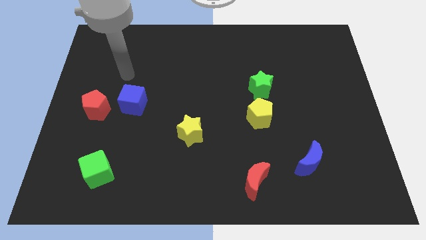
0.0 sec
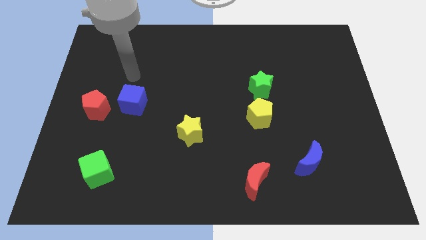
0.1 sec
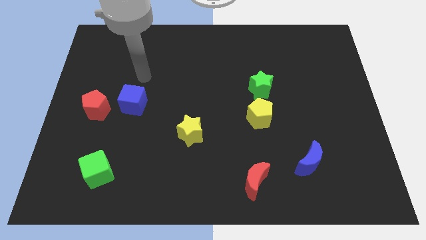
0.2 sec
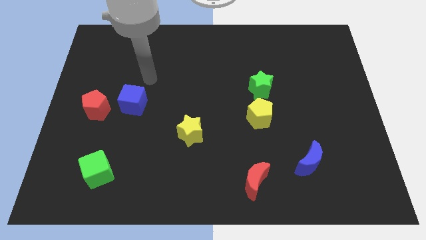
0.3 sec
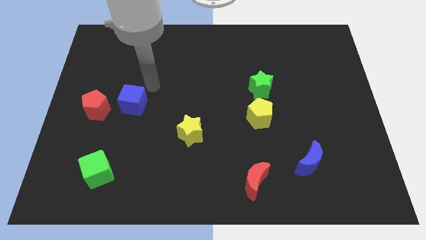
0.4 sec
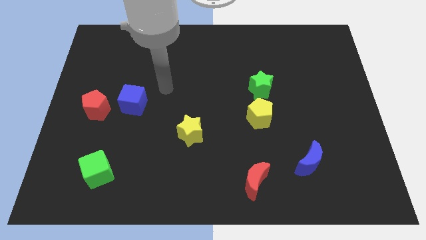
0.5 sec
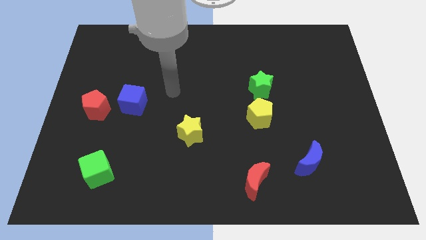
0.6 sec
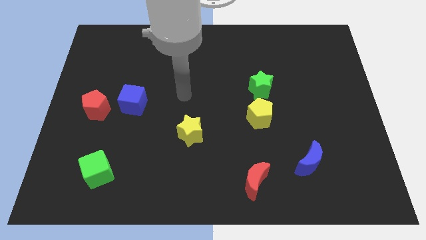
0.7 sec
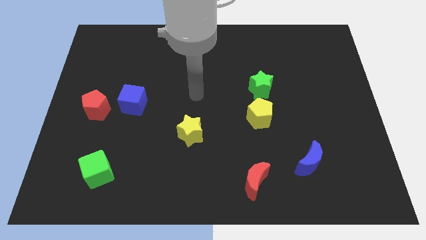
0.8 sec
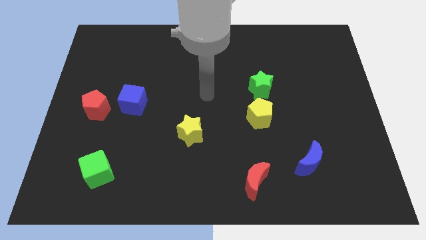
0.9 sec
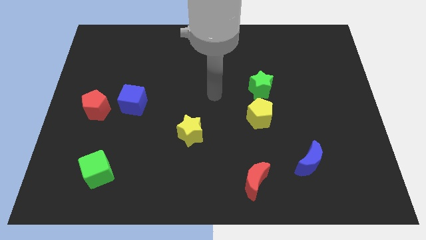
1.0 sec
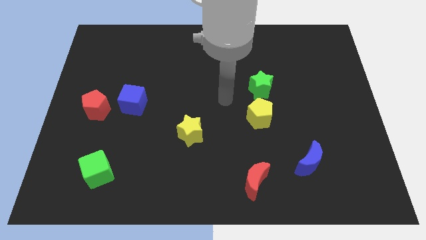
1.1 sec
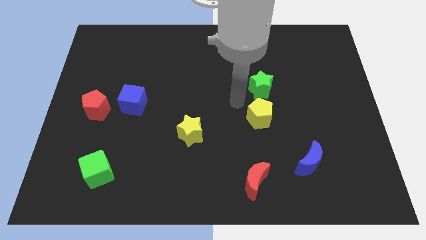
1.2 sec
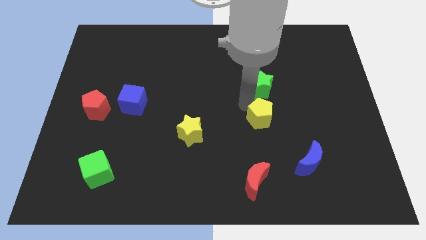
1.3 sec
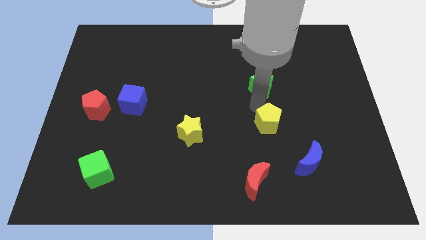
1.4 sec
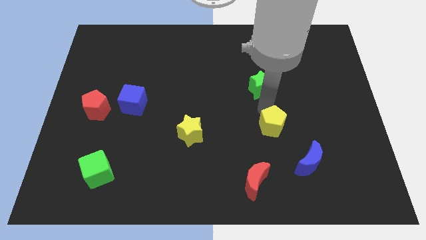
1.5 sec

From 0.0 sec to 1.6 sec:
separate the green star from the yellow pentagon

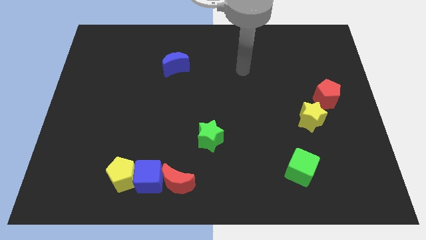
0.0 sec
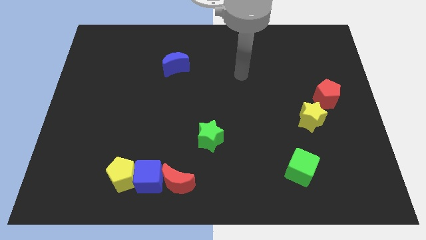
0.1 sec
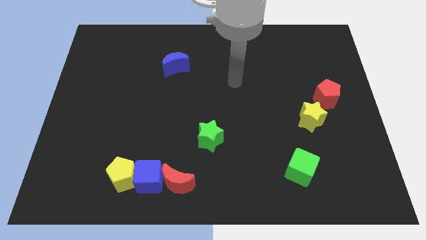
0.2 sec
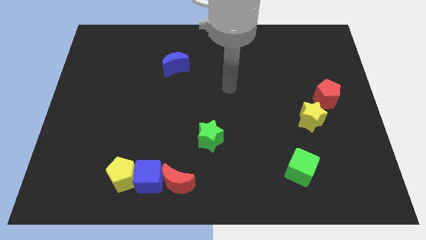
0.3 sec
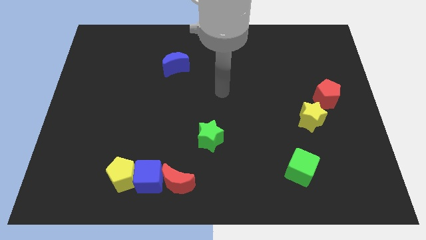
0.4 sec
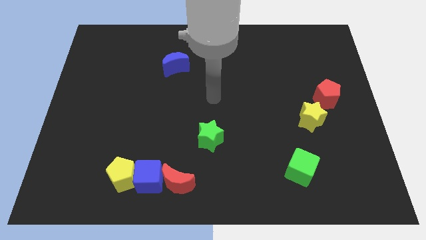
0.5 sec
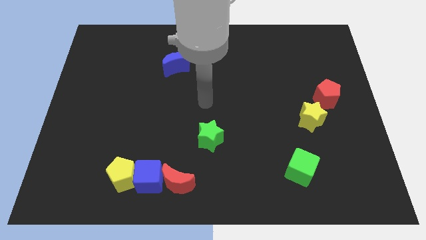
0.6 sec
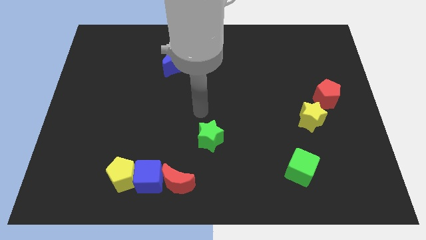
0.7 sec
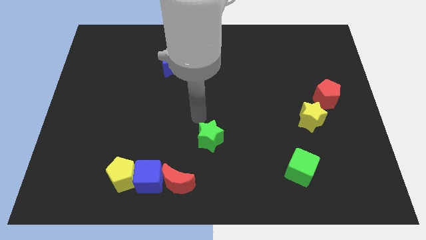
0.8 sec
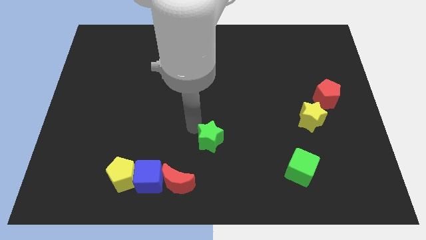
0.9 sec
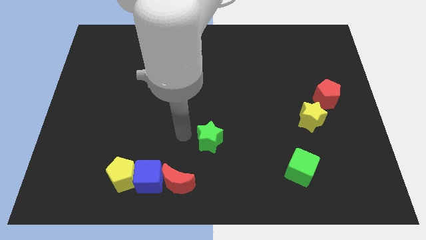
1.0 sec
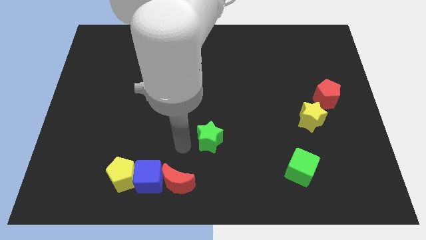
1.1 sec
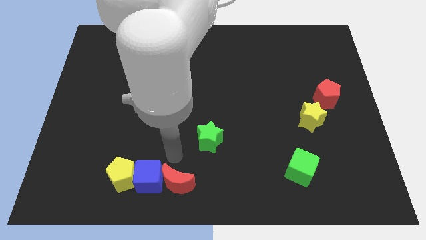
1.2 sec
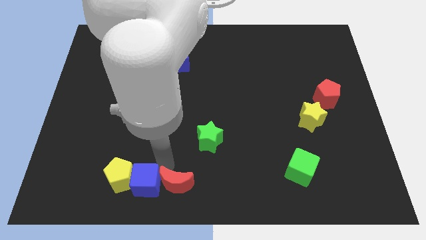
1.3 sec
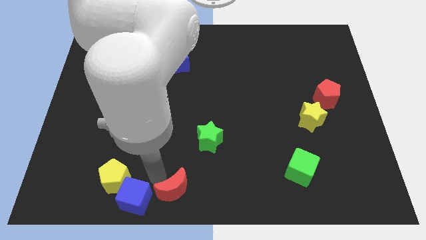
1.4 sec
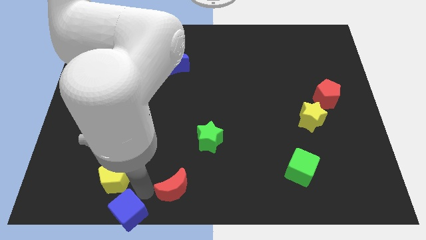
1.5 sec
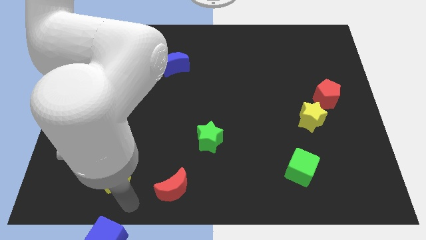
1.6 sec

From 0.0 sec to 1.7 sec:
move the yellow pentagon away from the blue cube

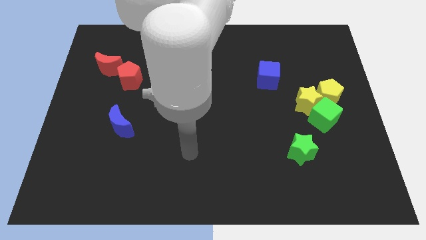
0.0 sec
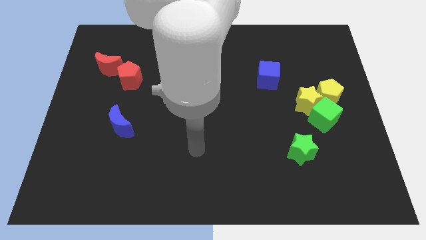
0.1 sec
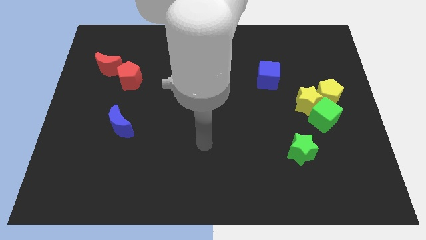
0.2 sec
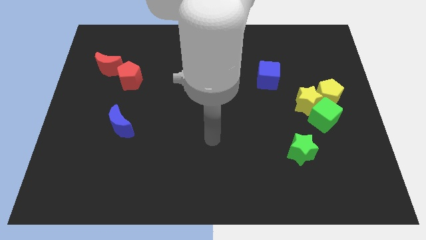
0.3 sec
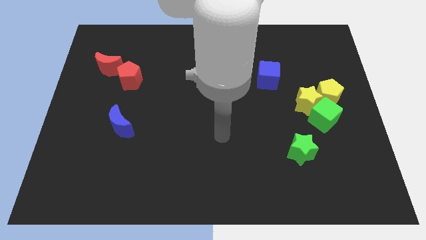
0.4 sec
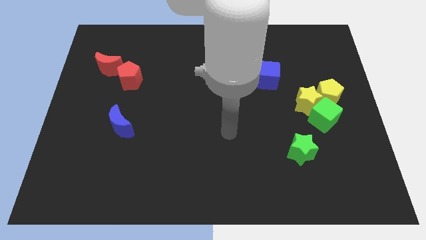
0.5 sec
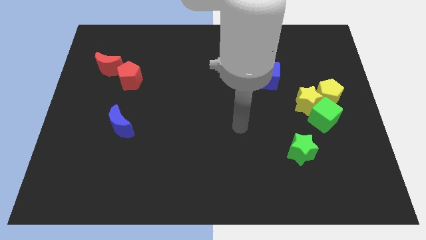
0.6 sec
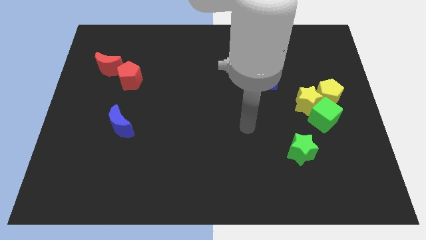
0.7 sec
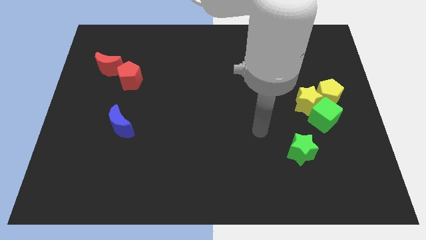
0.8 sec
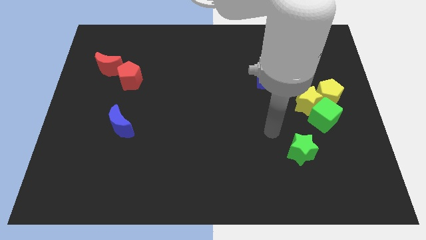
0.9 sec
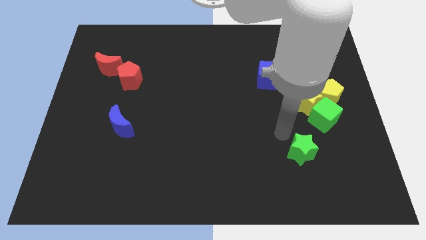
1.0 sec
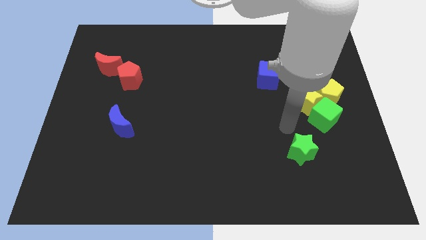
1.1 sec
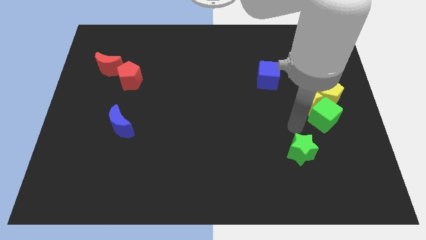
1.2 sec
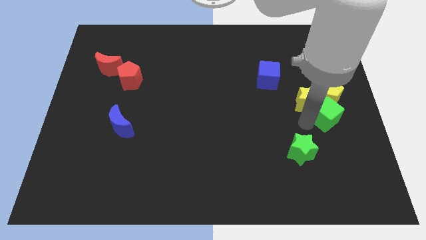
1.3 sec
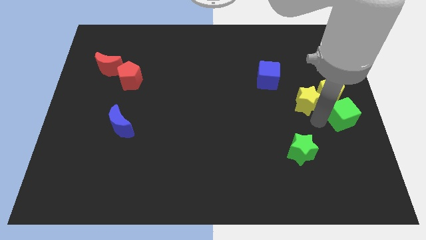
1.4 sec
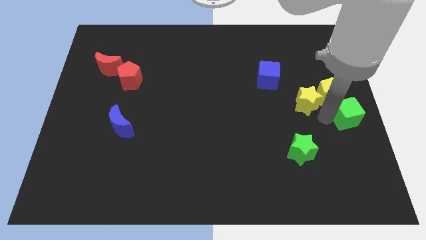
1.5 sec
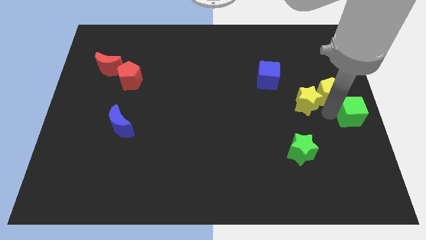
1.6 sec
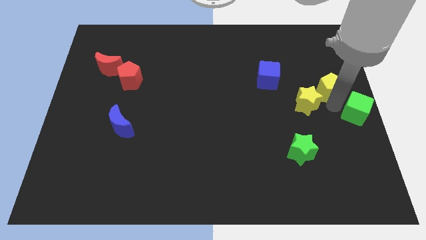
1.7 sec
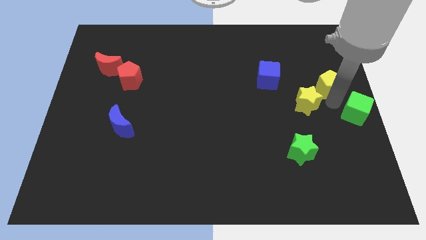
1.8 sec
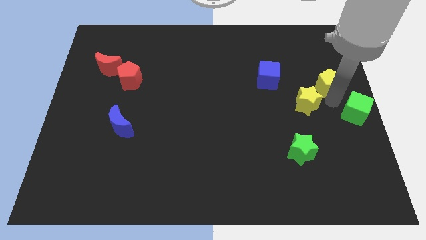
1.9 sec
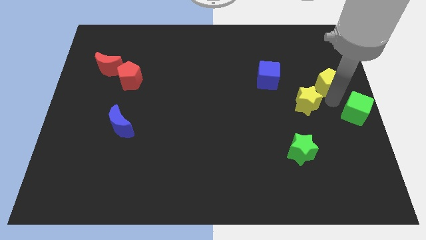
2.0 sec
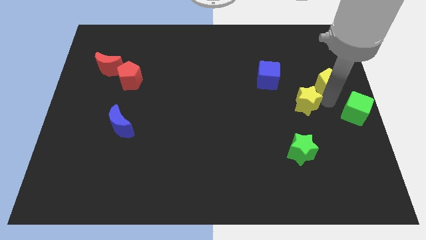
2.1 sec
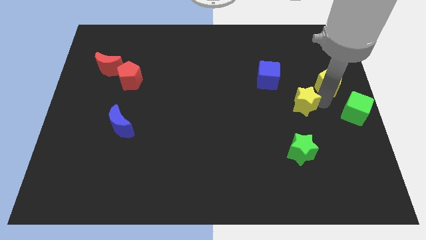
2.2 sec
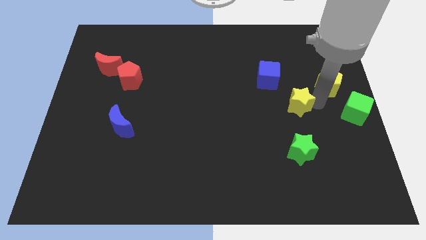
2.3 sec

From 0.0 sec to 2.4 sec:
move the yellow star away from the green cube and yellow pentagon

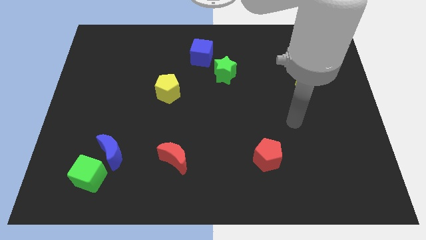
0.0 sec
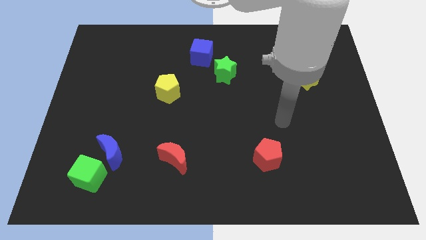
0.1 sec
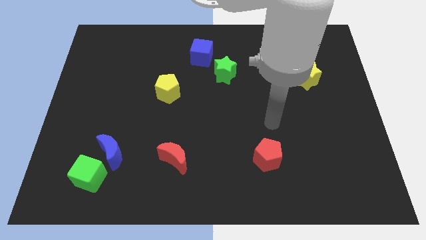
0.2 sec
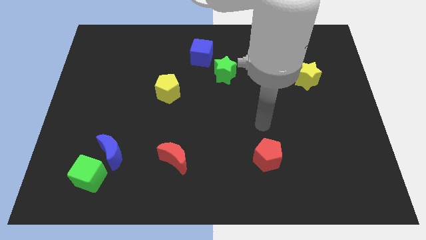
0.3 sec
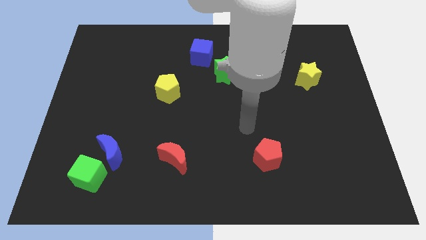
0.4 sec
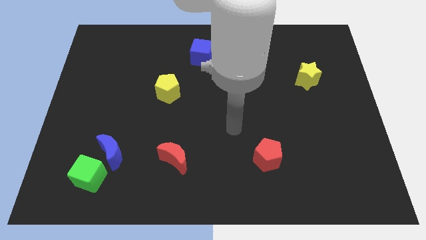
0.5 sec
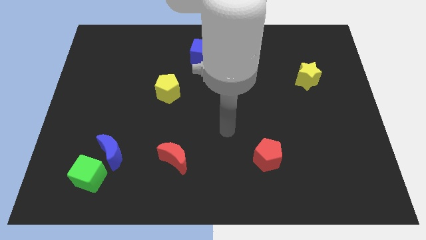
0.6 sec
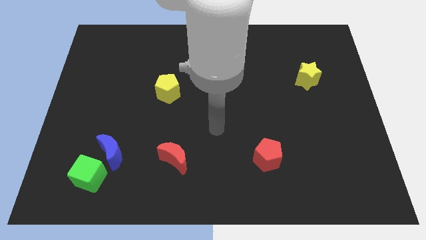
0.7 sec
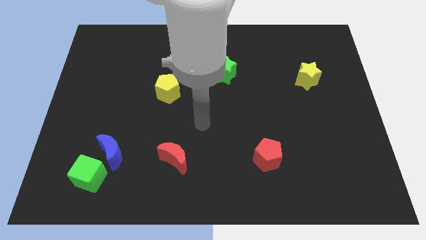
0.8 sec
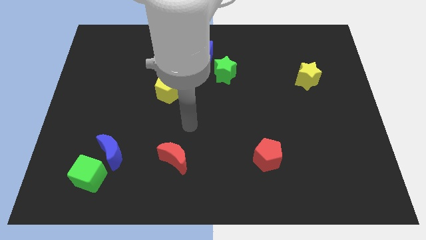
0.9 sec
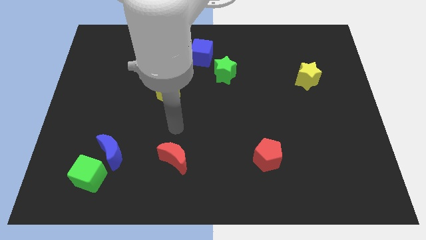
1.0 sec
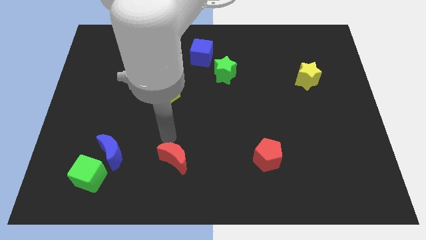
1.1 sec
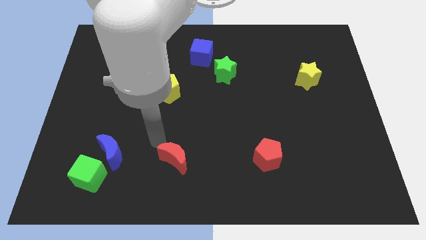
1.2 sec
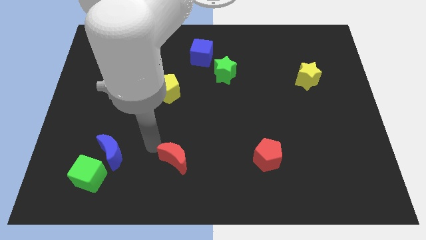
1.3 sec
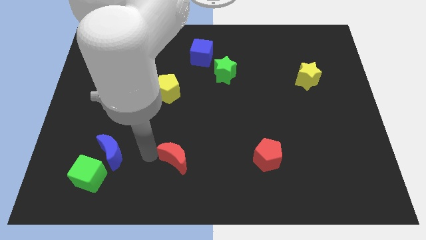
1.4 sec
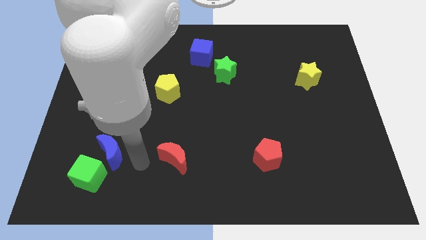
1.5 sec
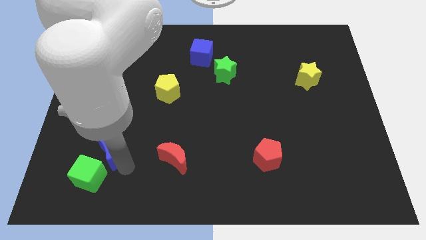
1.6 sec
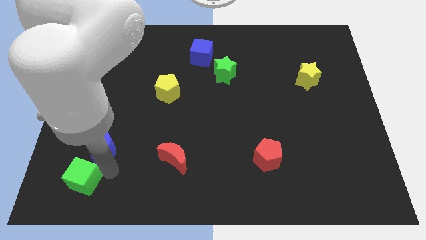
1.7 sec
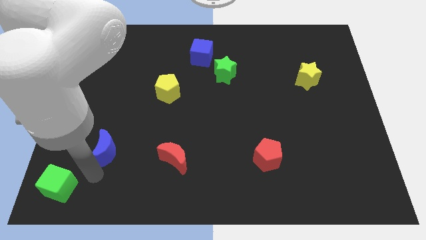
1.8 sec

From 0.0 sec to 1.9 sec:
pull the blue moon apart from the green cube

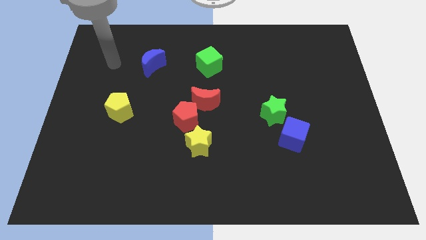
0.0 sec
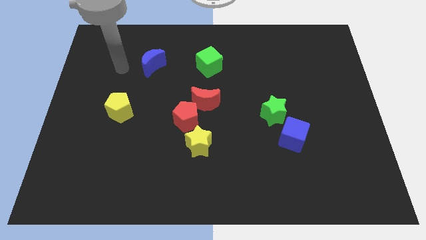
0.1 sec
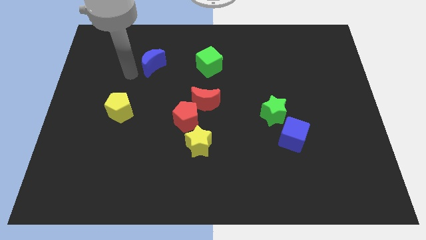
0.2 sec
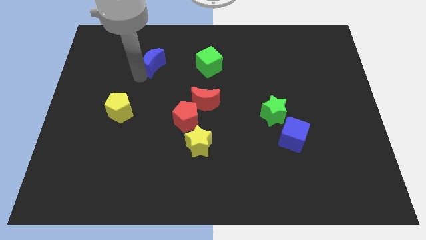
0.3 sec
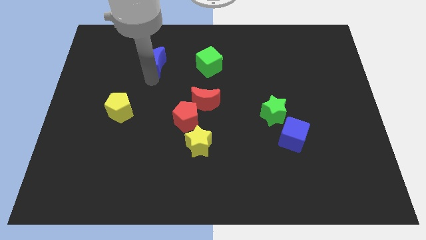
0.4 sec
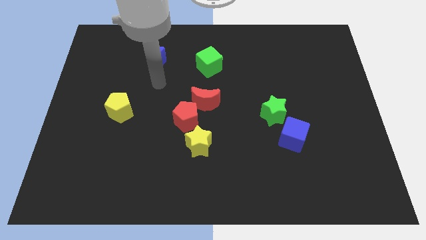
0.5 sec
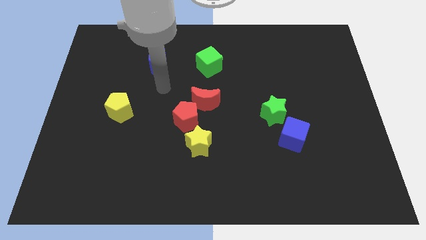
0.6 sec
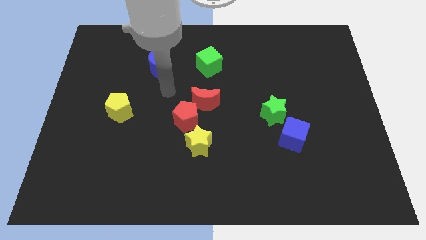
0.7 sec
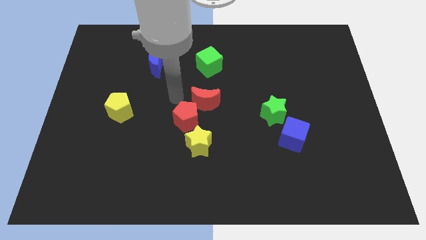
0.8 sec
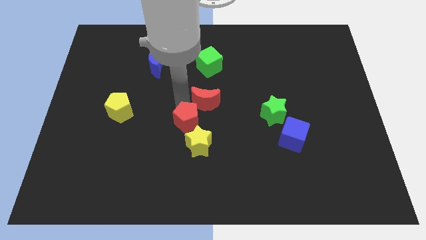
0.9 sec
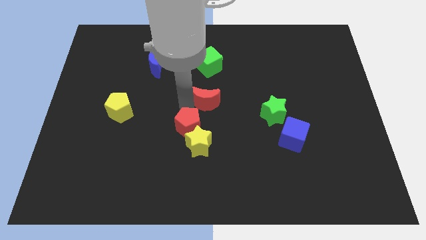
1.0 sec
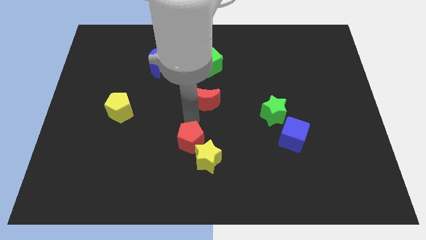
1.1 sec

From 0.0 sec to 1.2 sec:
move the red moon away from the red pentagon

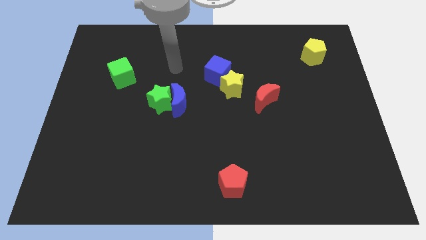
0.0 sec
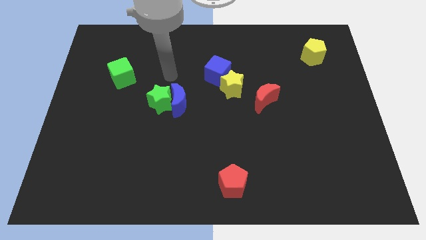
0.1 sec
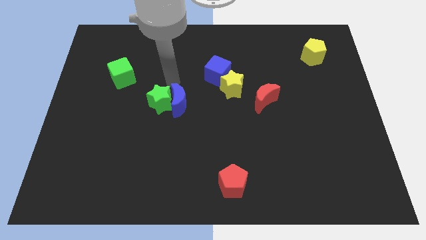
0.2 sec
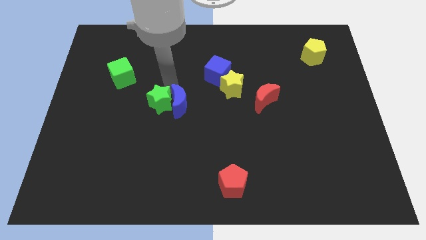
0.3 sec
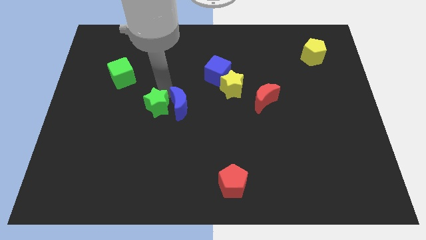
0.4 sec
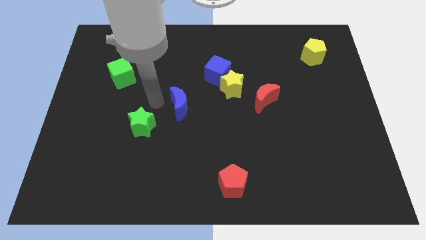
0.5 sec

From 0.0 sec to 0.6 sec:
separate the blue moon from the green star
